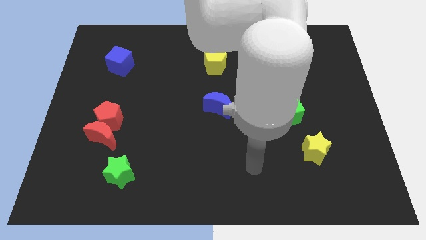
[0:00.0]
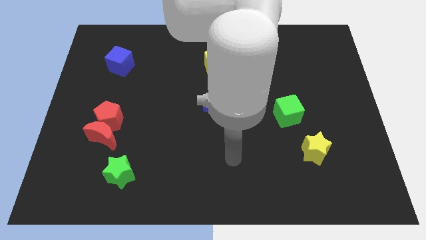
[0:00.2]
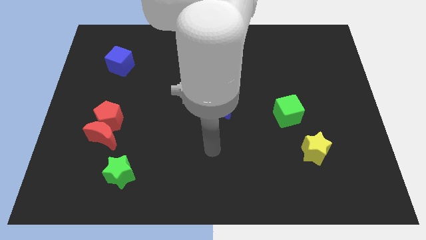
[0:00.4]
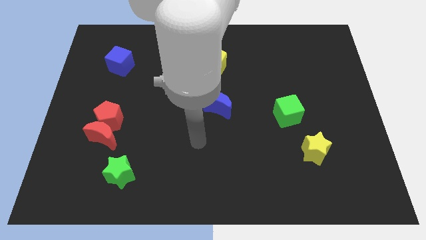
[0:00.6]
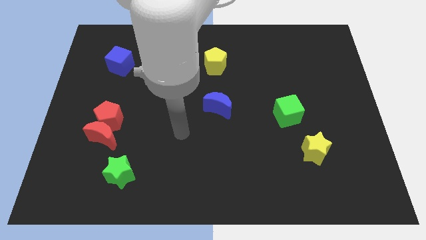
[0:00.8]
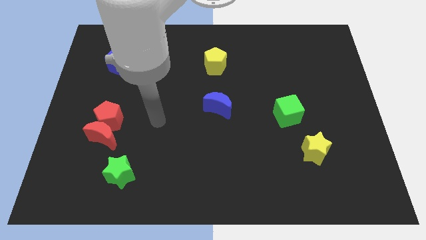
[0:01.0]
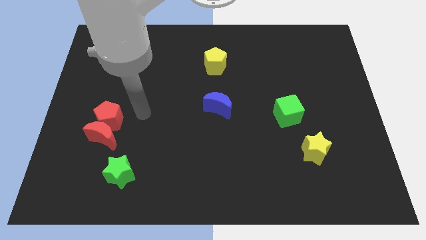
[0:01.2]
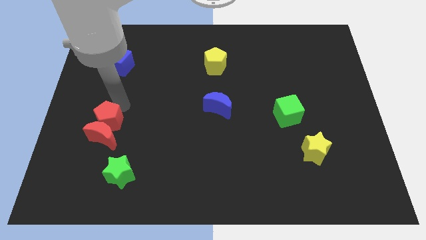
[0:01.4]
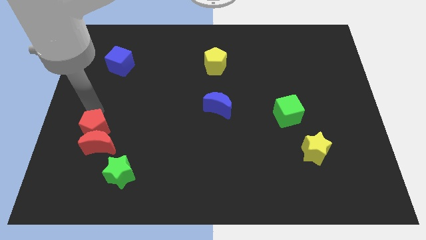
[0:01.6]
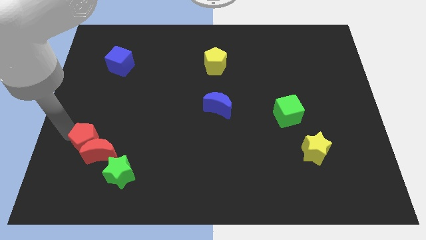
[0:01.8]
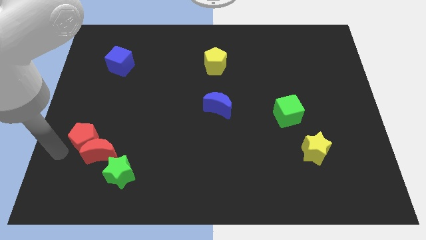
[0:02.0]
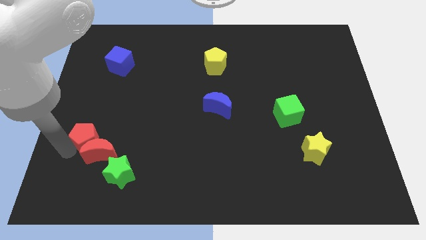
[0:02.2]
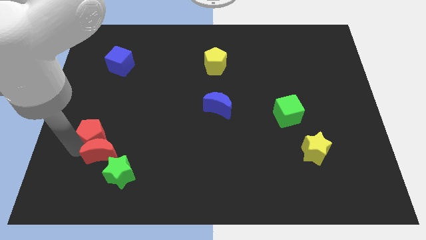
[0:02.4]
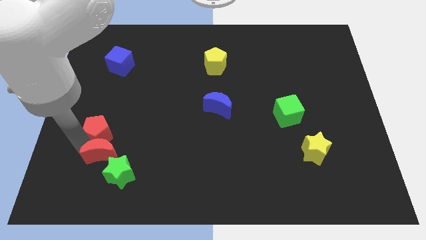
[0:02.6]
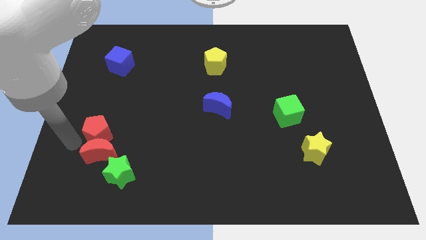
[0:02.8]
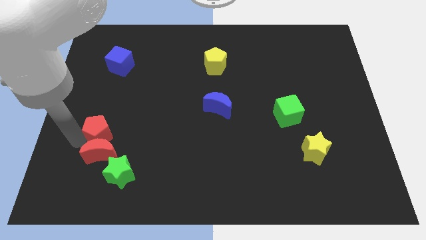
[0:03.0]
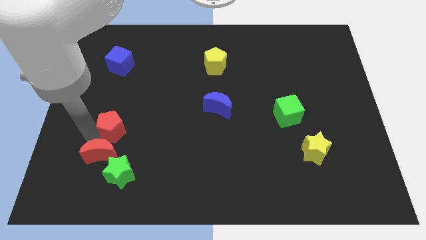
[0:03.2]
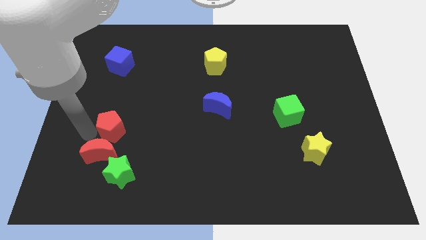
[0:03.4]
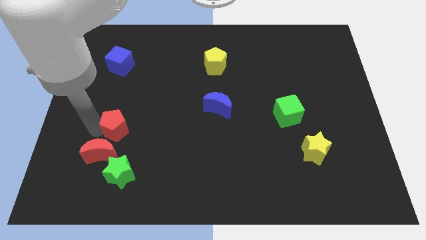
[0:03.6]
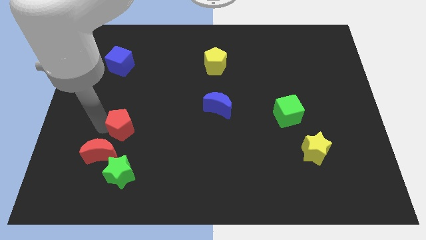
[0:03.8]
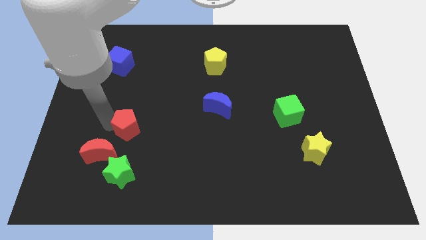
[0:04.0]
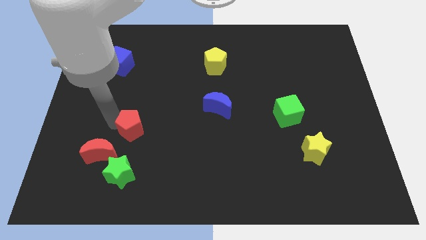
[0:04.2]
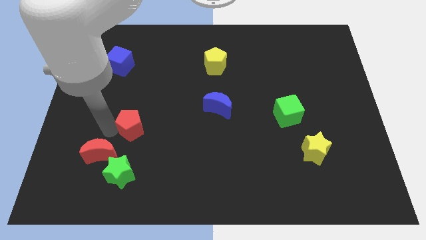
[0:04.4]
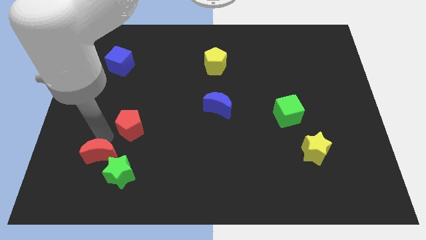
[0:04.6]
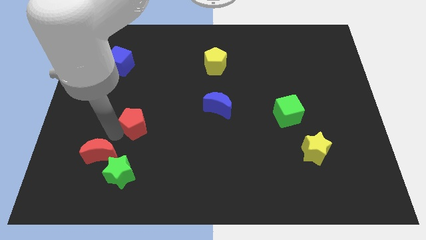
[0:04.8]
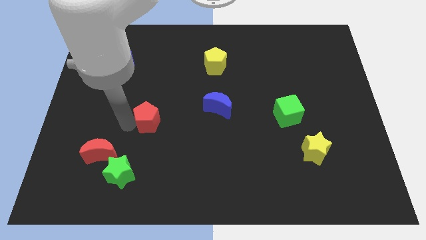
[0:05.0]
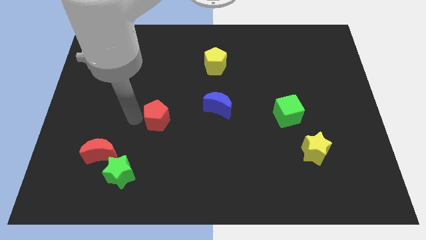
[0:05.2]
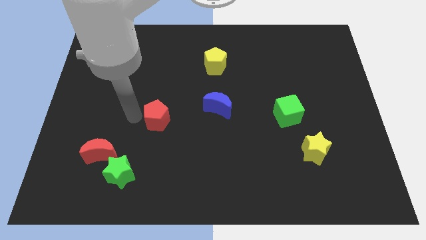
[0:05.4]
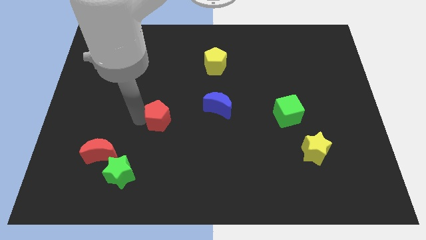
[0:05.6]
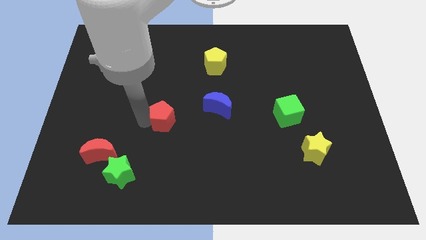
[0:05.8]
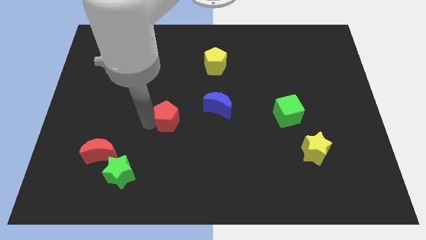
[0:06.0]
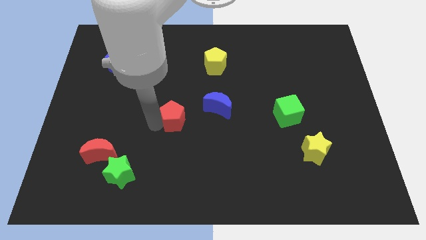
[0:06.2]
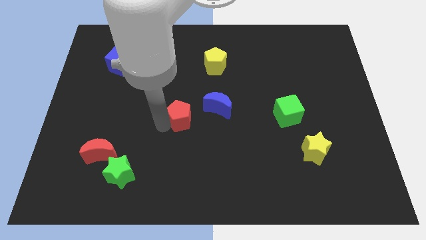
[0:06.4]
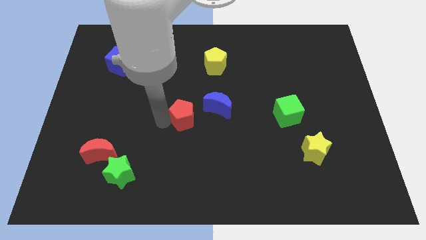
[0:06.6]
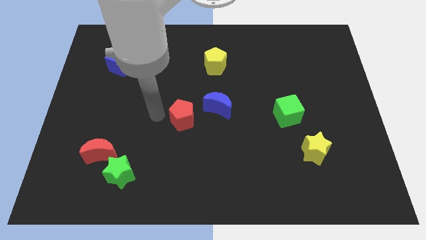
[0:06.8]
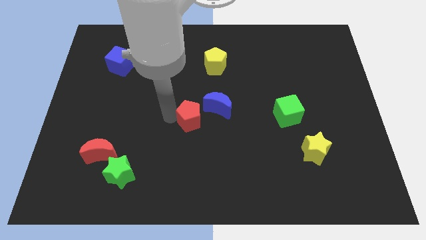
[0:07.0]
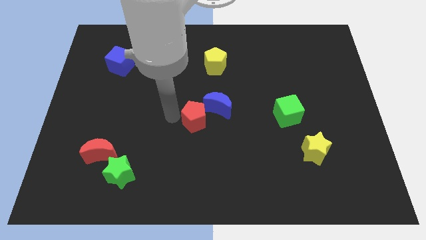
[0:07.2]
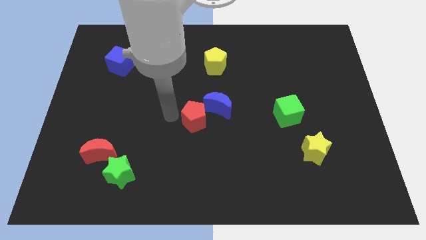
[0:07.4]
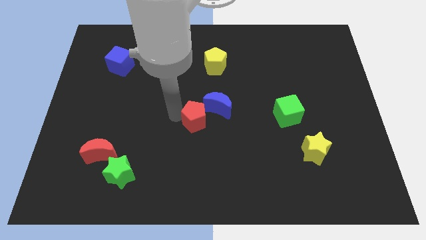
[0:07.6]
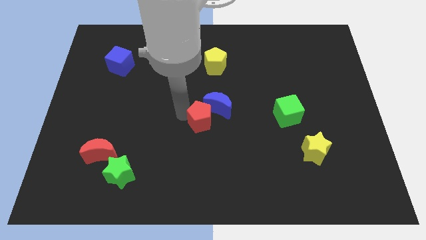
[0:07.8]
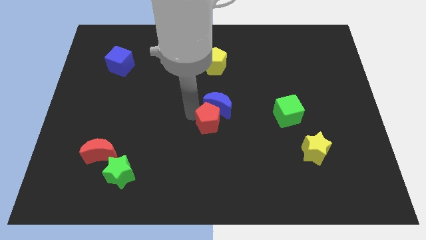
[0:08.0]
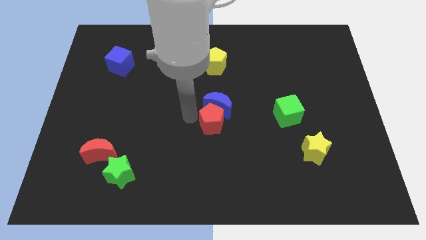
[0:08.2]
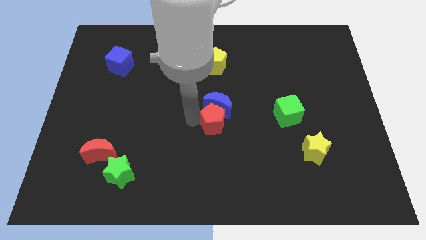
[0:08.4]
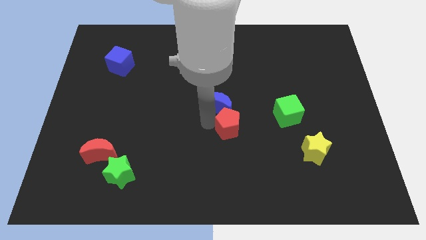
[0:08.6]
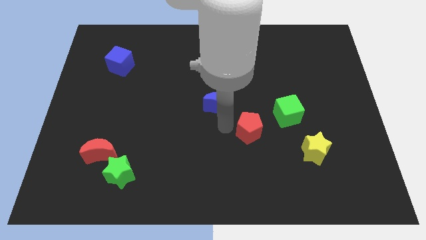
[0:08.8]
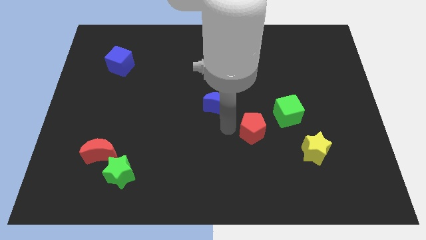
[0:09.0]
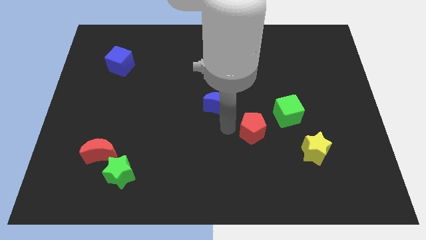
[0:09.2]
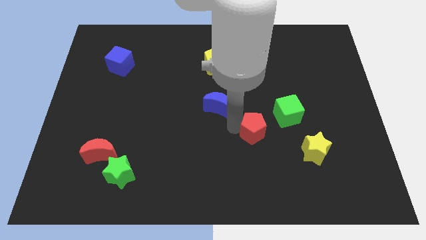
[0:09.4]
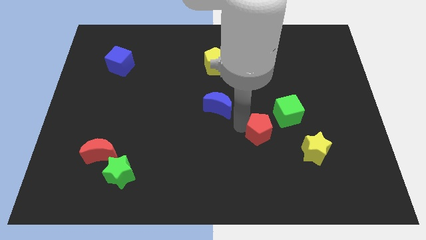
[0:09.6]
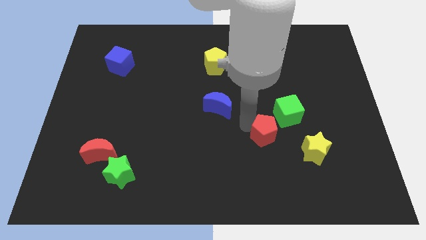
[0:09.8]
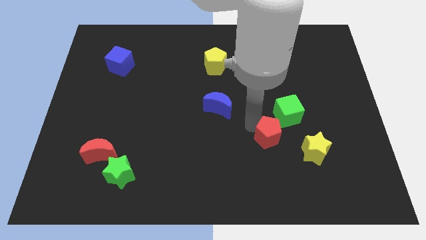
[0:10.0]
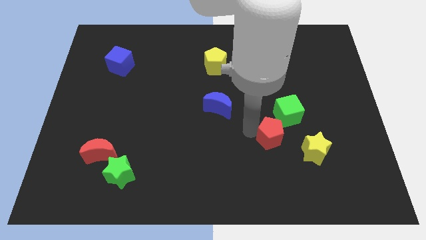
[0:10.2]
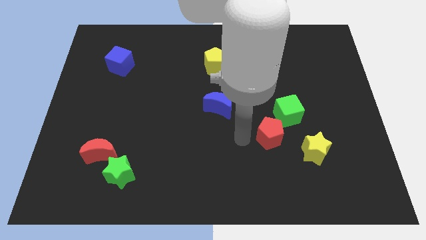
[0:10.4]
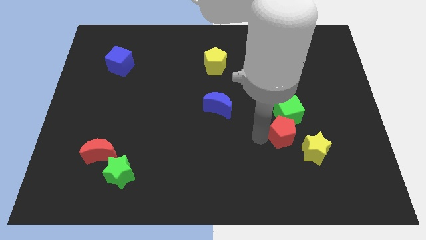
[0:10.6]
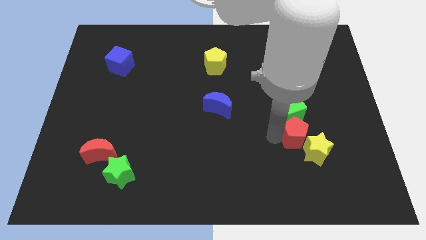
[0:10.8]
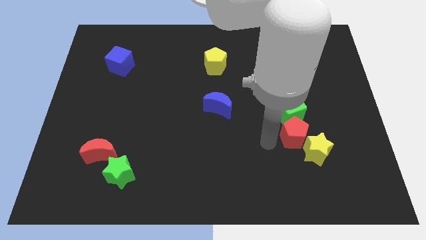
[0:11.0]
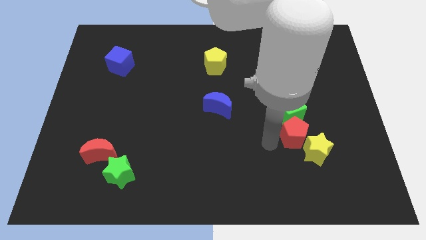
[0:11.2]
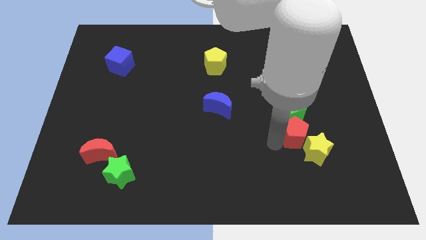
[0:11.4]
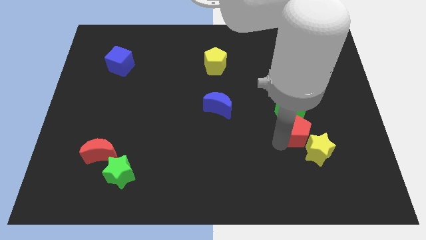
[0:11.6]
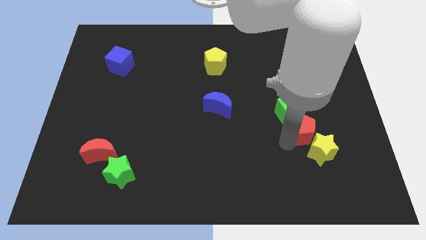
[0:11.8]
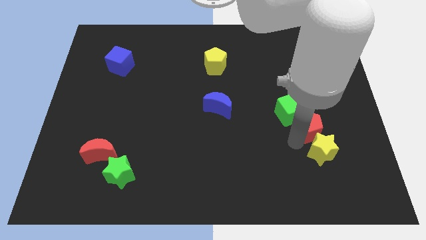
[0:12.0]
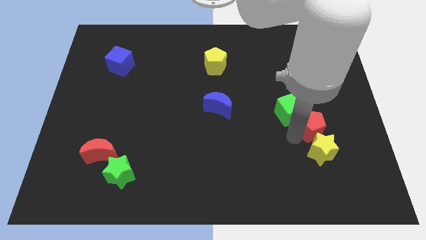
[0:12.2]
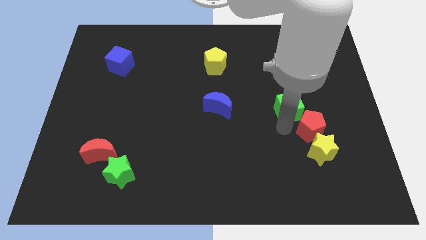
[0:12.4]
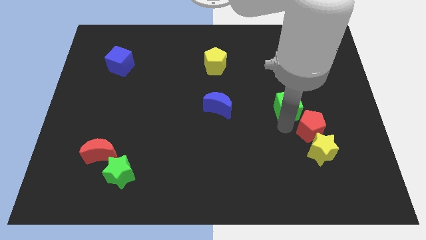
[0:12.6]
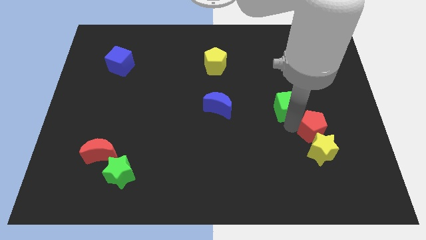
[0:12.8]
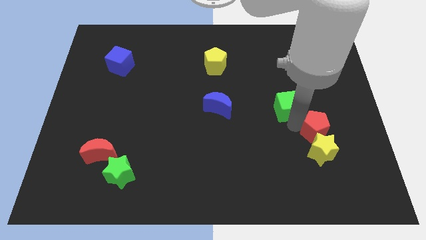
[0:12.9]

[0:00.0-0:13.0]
put the red pentagon to the top right of the yellow star

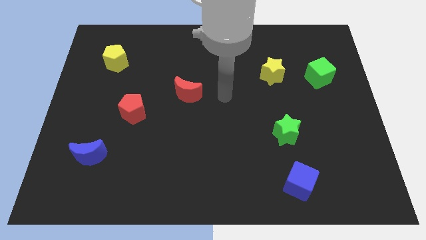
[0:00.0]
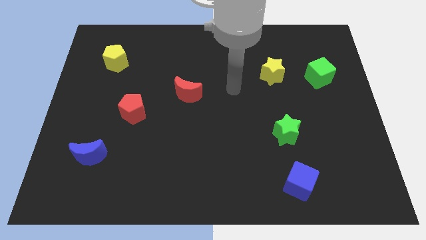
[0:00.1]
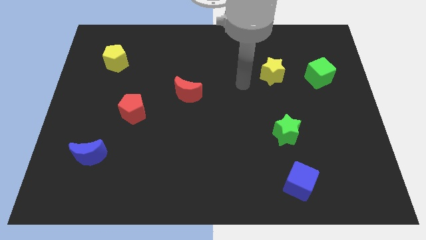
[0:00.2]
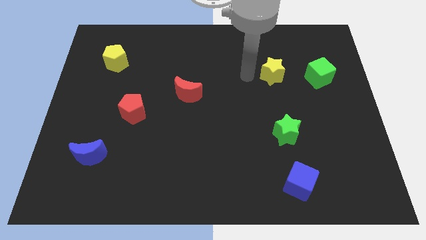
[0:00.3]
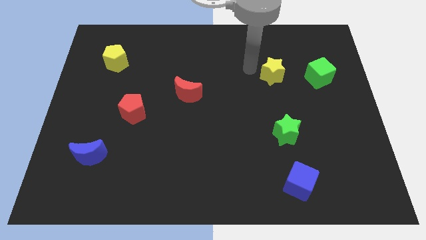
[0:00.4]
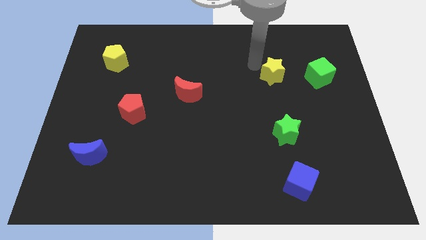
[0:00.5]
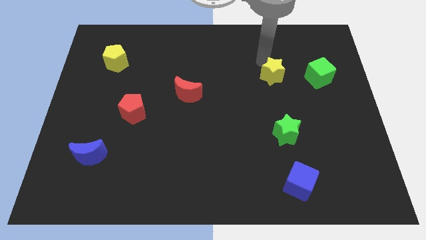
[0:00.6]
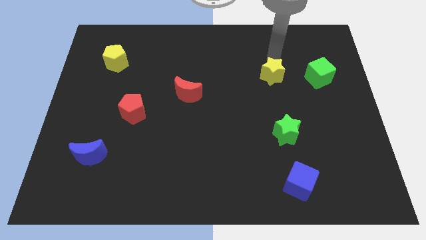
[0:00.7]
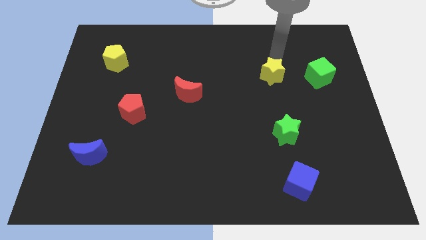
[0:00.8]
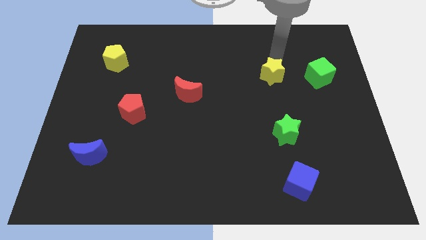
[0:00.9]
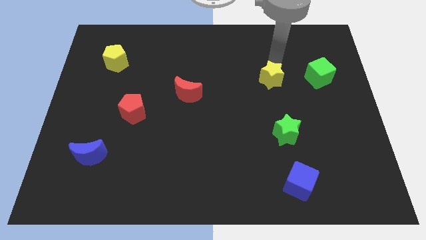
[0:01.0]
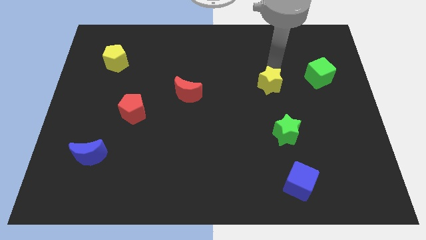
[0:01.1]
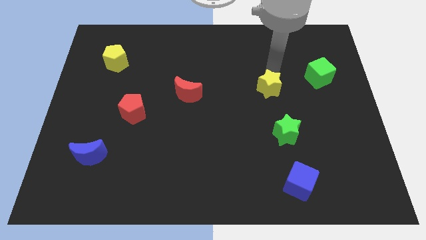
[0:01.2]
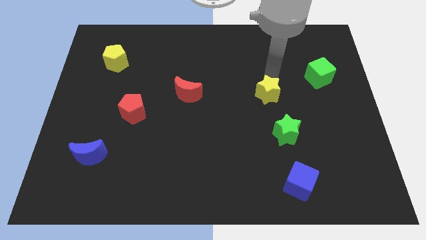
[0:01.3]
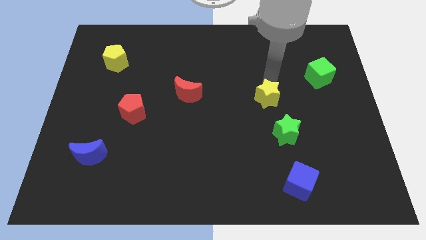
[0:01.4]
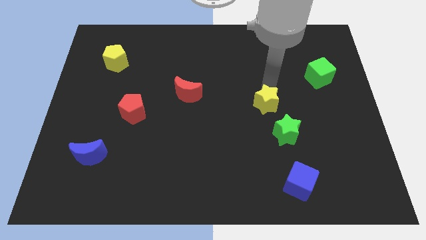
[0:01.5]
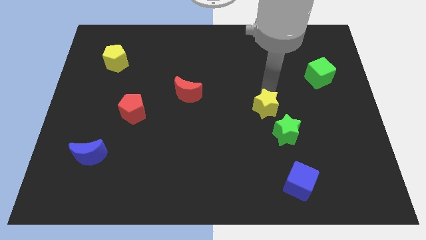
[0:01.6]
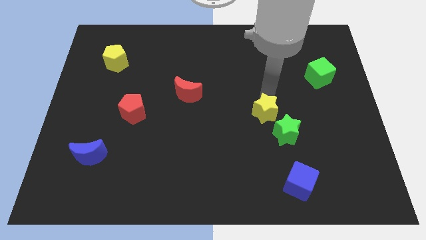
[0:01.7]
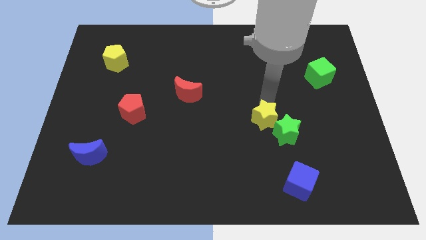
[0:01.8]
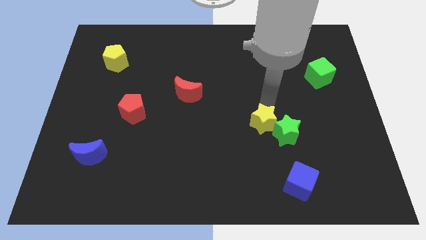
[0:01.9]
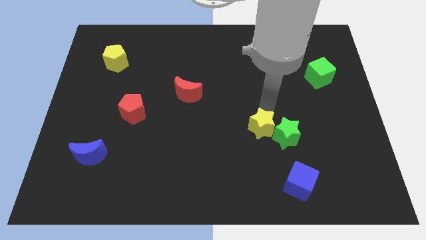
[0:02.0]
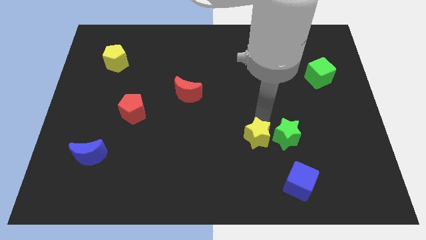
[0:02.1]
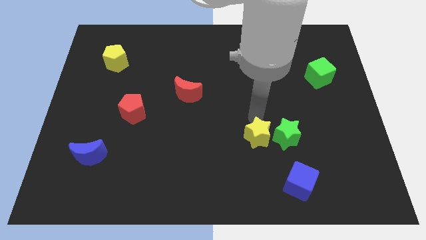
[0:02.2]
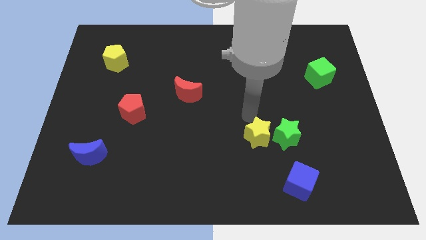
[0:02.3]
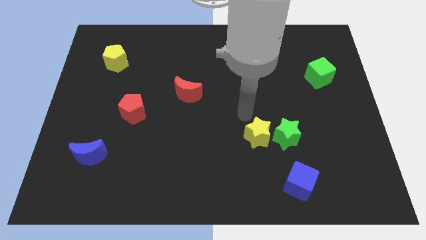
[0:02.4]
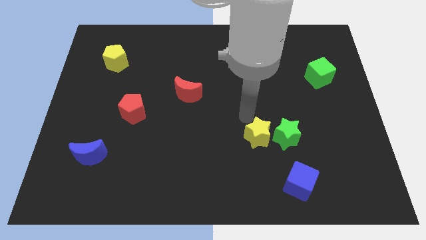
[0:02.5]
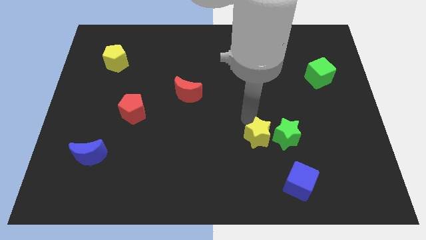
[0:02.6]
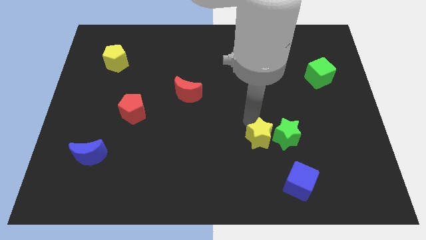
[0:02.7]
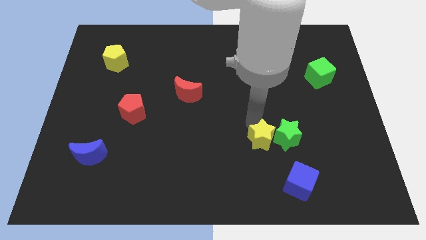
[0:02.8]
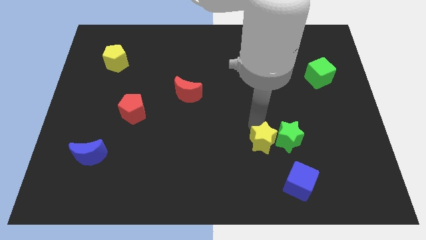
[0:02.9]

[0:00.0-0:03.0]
slide the yellow star to the top left of the blue cube
